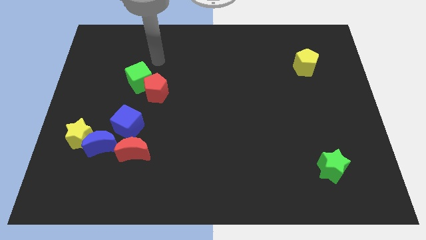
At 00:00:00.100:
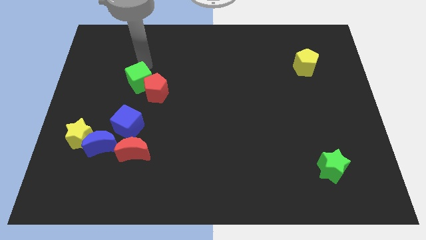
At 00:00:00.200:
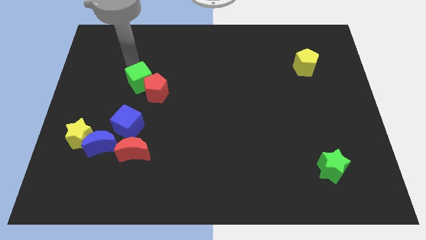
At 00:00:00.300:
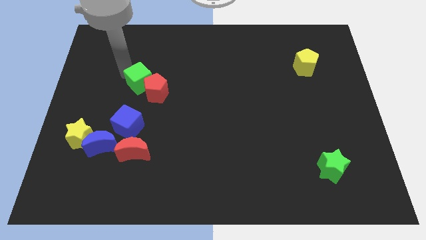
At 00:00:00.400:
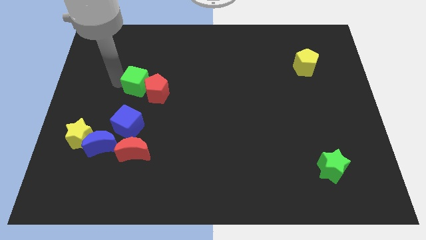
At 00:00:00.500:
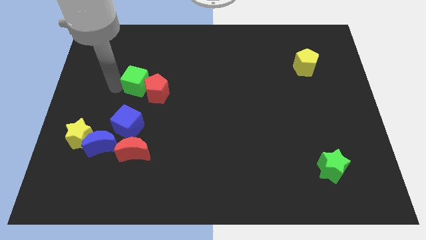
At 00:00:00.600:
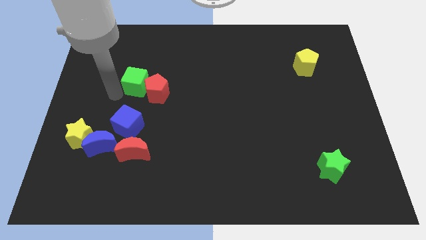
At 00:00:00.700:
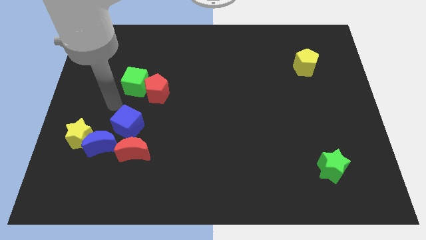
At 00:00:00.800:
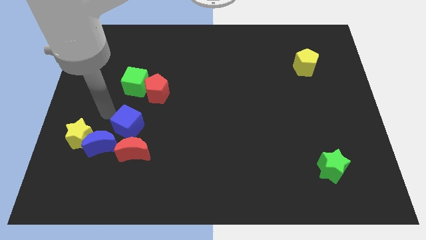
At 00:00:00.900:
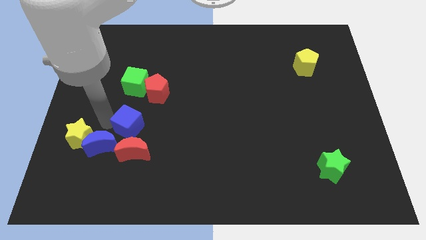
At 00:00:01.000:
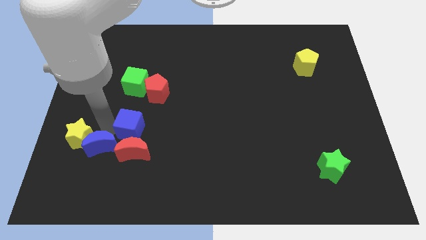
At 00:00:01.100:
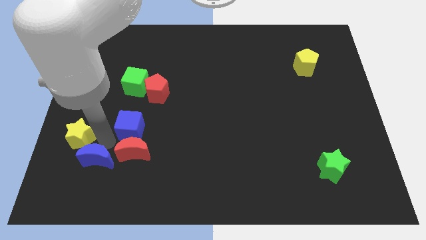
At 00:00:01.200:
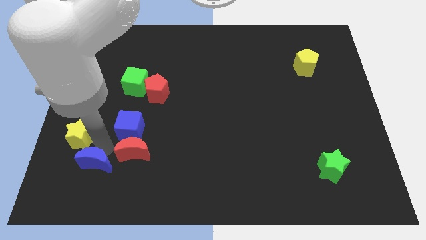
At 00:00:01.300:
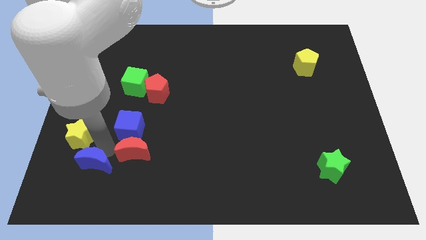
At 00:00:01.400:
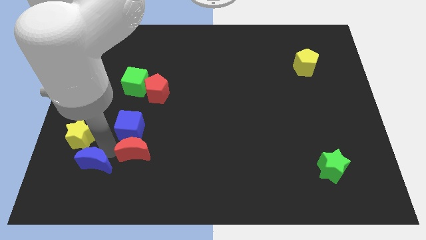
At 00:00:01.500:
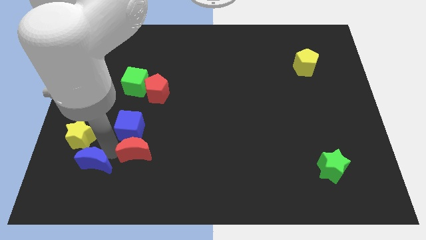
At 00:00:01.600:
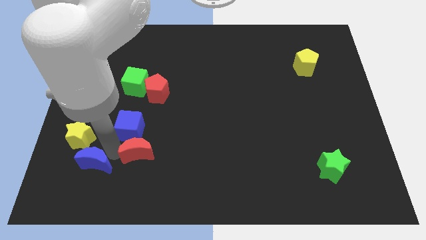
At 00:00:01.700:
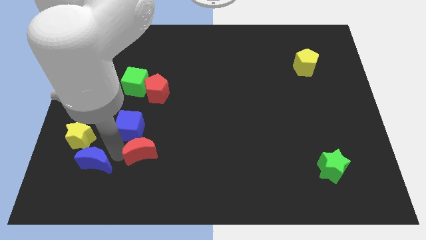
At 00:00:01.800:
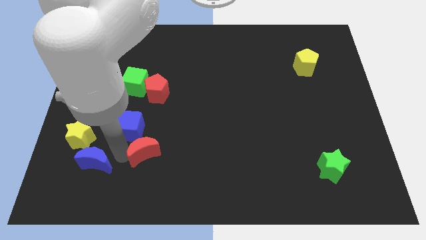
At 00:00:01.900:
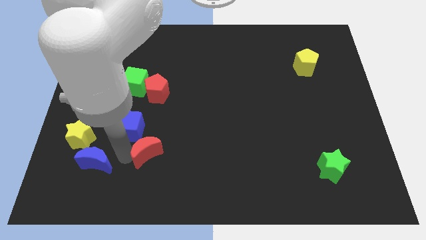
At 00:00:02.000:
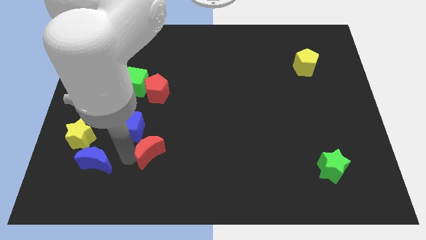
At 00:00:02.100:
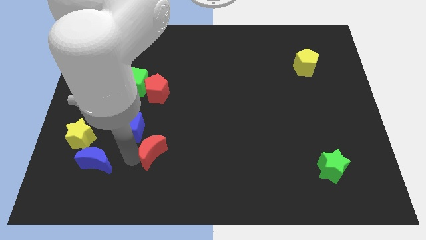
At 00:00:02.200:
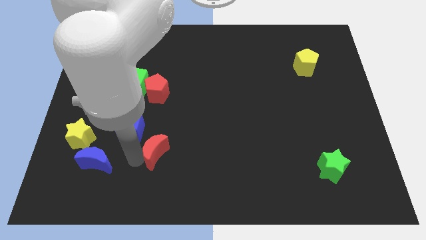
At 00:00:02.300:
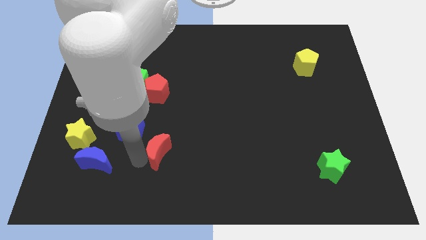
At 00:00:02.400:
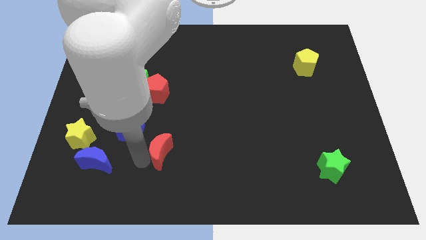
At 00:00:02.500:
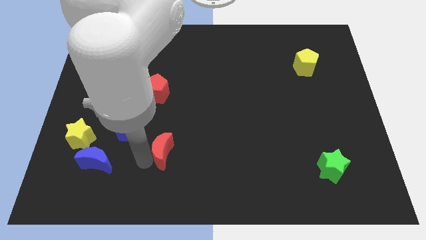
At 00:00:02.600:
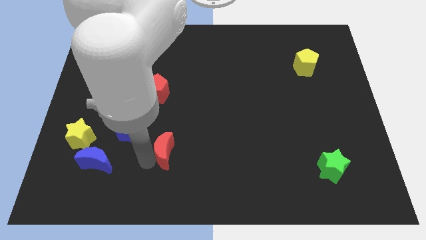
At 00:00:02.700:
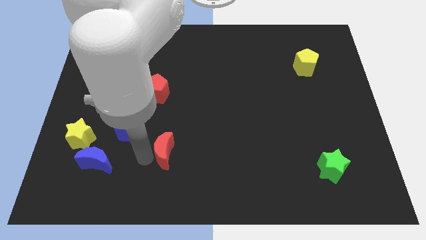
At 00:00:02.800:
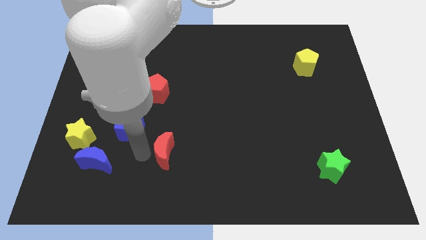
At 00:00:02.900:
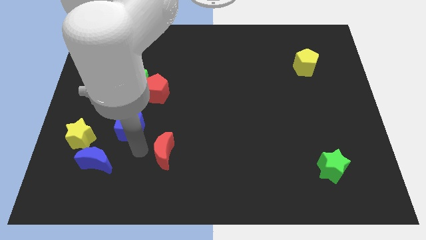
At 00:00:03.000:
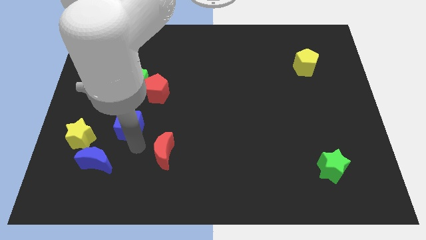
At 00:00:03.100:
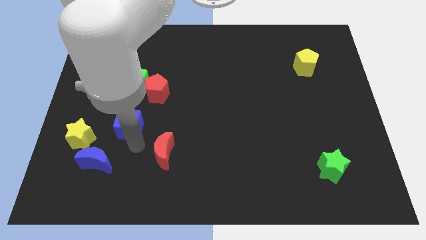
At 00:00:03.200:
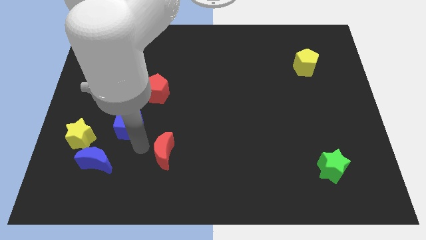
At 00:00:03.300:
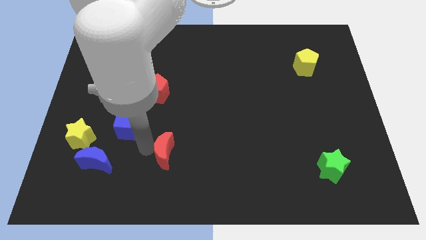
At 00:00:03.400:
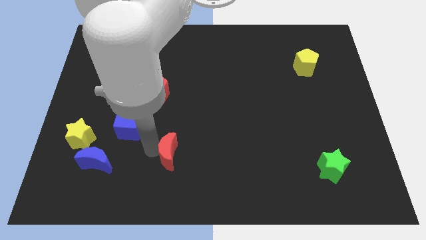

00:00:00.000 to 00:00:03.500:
push the red moon right a little

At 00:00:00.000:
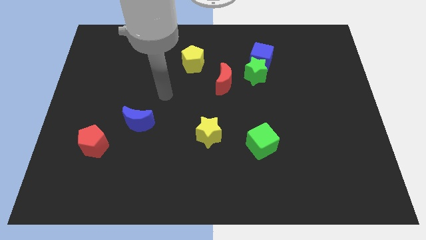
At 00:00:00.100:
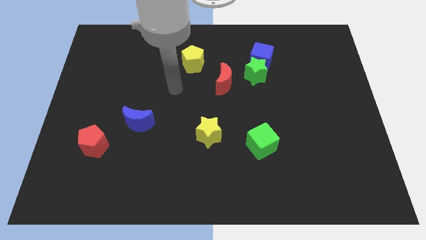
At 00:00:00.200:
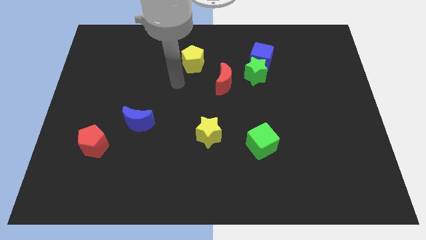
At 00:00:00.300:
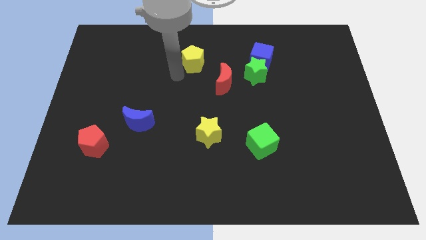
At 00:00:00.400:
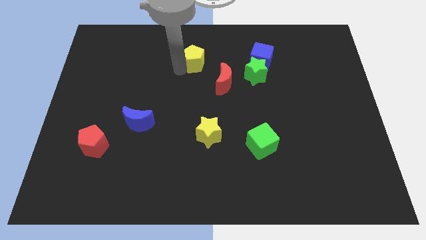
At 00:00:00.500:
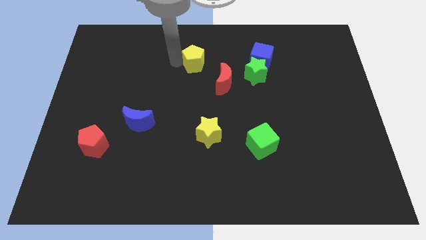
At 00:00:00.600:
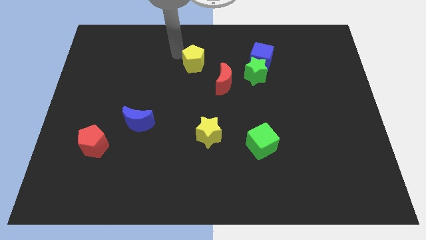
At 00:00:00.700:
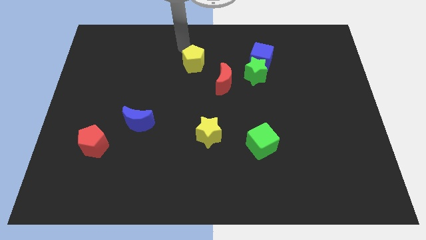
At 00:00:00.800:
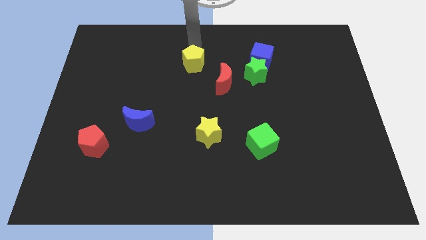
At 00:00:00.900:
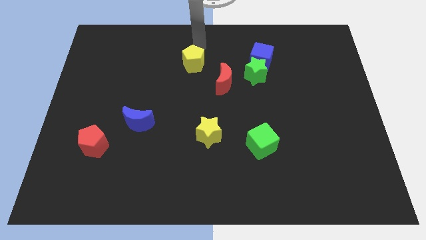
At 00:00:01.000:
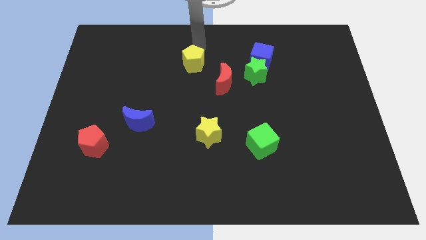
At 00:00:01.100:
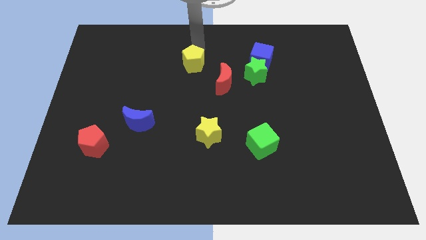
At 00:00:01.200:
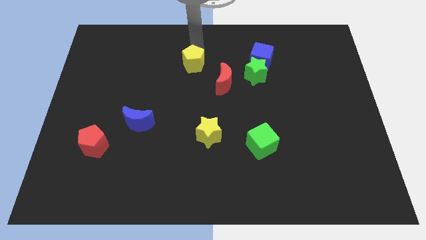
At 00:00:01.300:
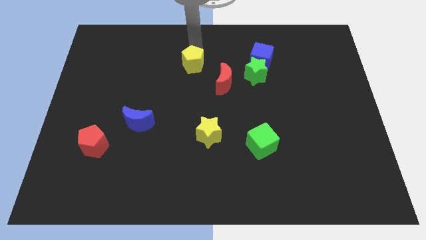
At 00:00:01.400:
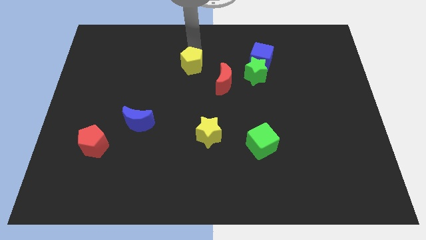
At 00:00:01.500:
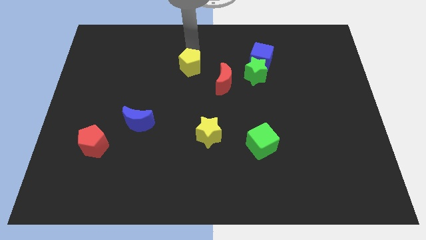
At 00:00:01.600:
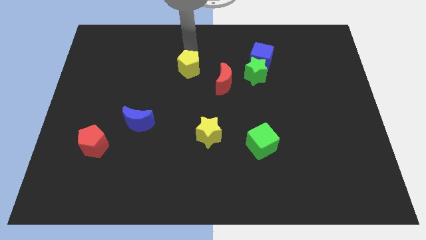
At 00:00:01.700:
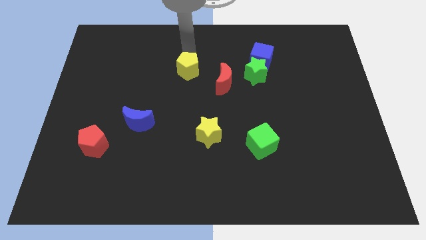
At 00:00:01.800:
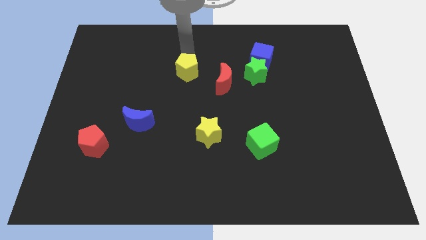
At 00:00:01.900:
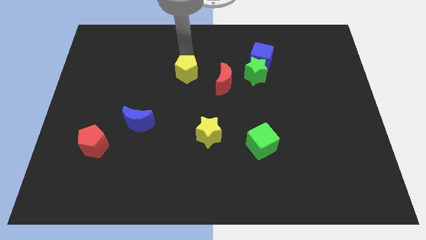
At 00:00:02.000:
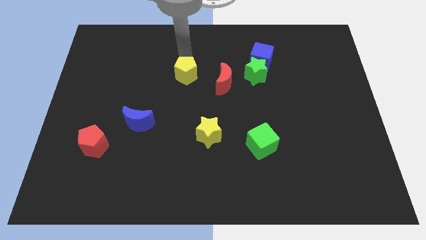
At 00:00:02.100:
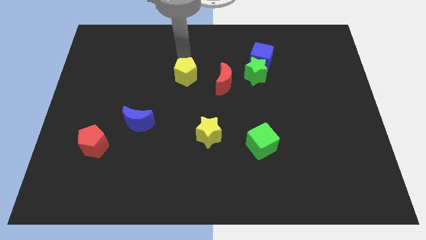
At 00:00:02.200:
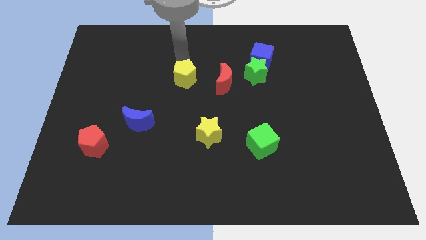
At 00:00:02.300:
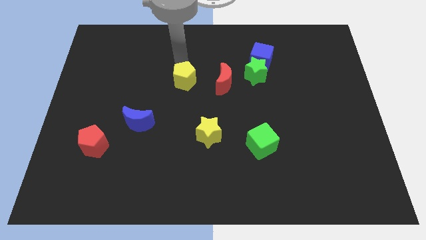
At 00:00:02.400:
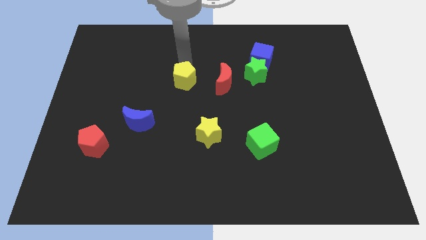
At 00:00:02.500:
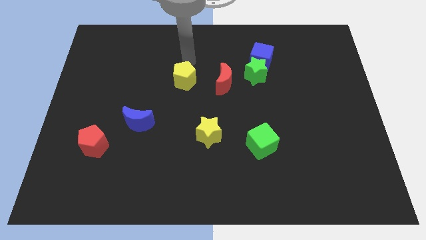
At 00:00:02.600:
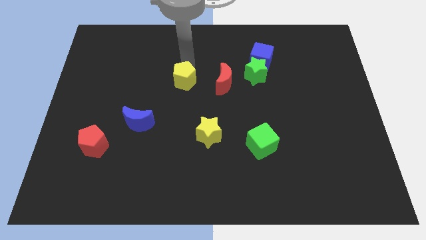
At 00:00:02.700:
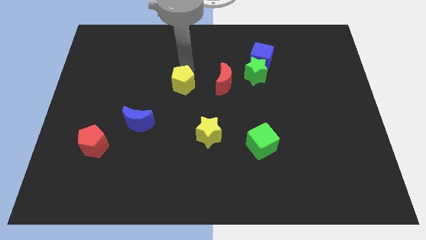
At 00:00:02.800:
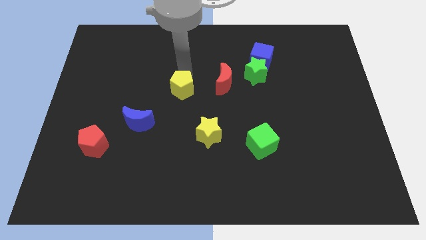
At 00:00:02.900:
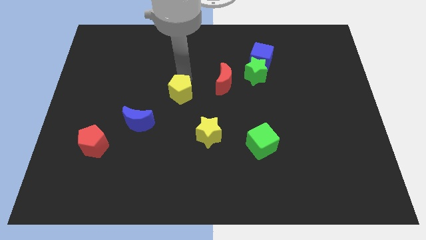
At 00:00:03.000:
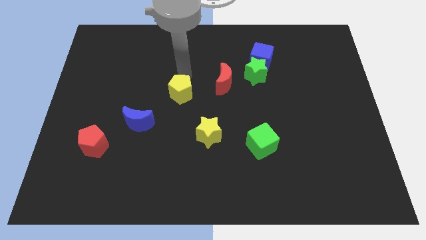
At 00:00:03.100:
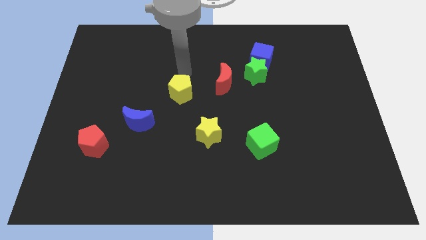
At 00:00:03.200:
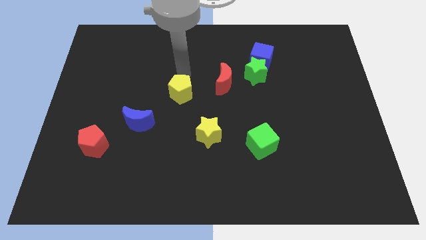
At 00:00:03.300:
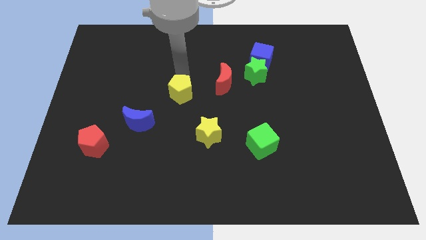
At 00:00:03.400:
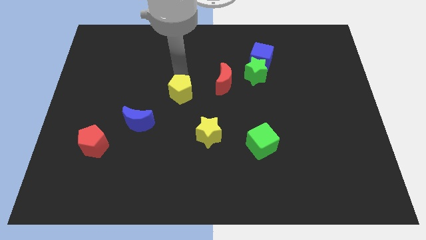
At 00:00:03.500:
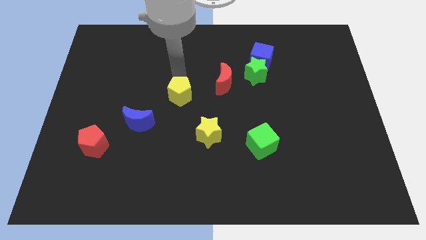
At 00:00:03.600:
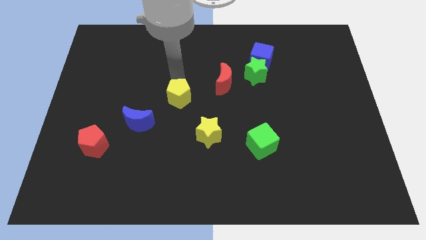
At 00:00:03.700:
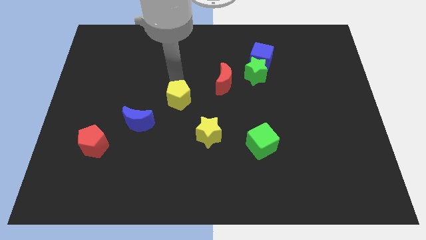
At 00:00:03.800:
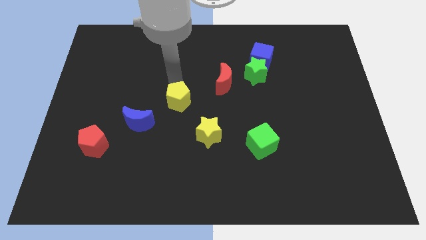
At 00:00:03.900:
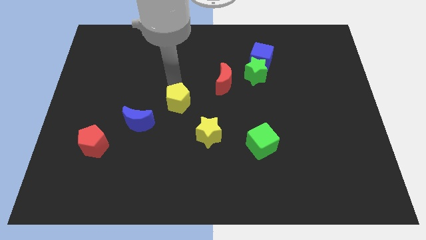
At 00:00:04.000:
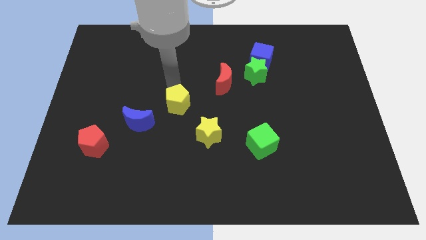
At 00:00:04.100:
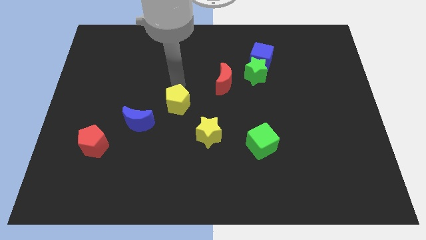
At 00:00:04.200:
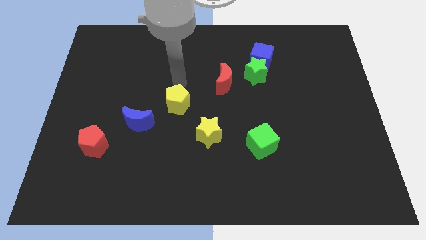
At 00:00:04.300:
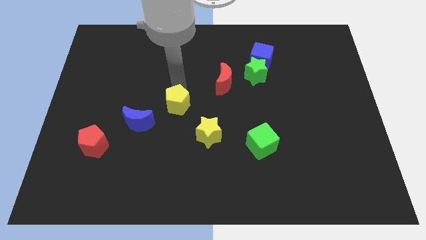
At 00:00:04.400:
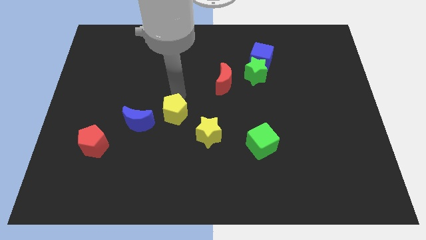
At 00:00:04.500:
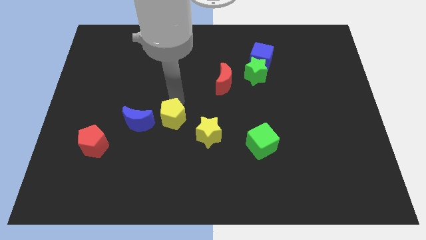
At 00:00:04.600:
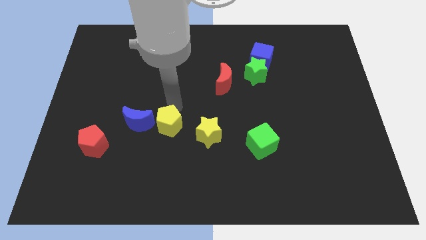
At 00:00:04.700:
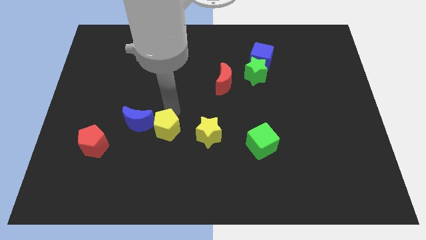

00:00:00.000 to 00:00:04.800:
move the yellow pentagon downwards
